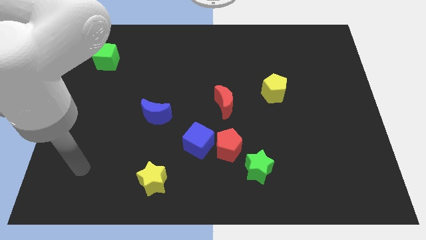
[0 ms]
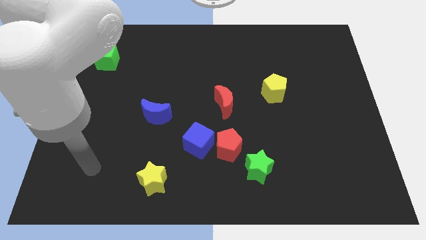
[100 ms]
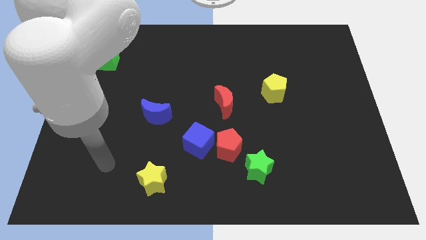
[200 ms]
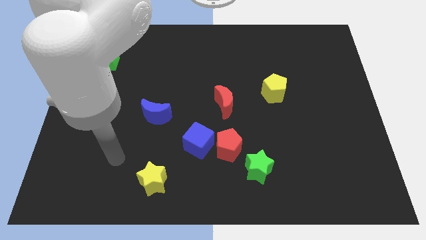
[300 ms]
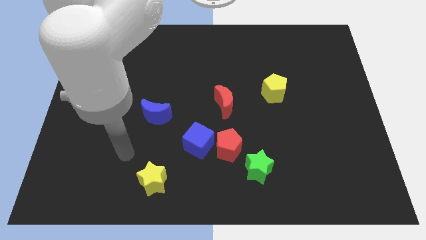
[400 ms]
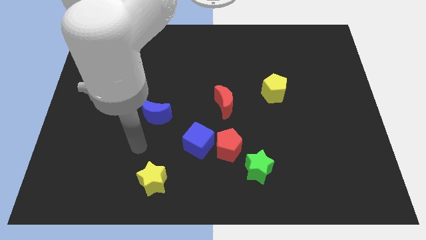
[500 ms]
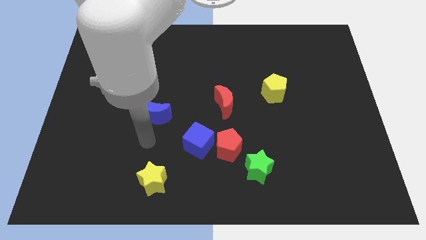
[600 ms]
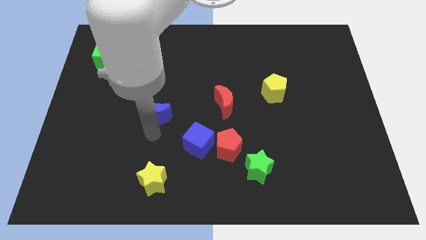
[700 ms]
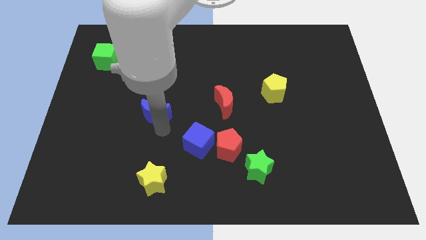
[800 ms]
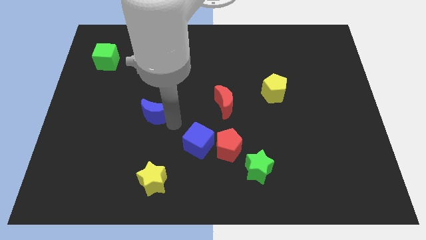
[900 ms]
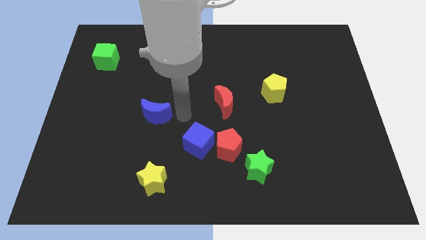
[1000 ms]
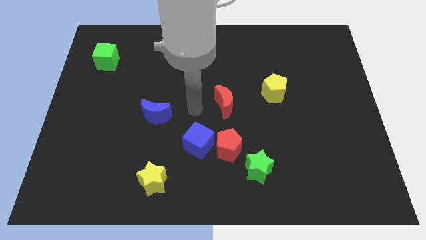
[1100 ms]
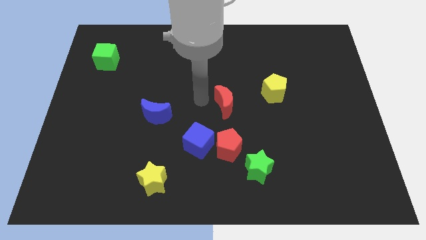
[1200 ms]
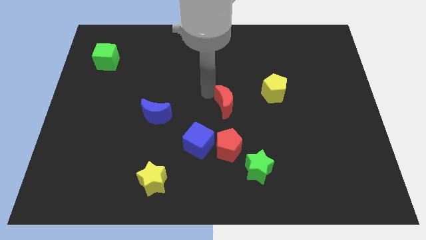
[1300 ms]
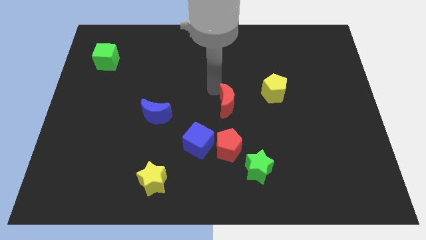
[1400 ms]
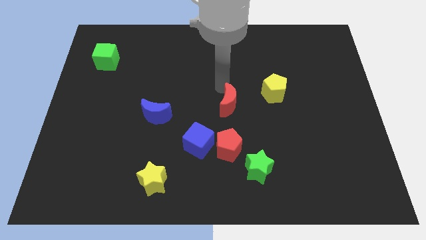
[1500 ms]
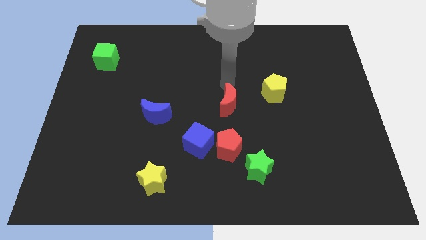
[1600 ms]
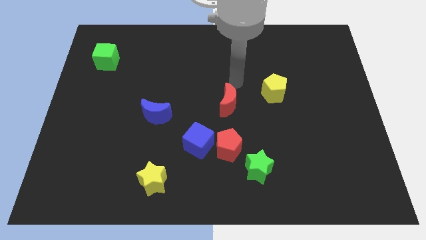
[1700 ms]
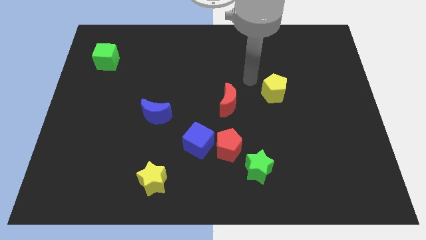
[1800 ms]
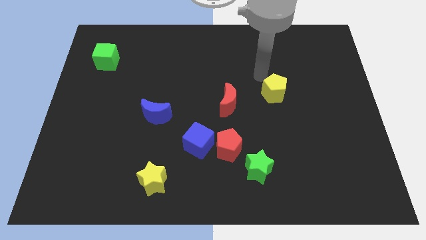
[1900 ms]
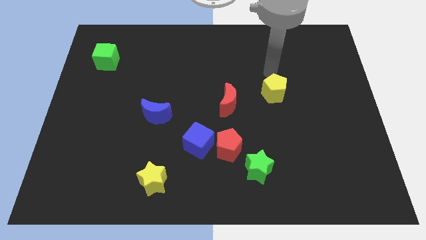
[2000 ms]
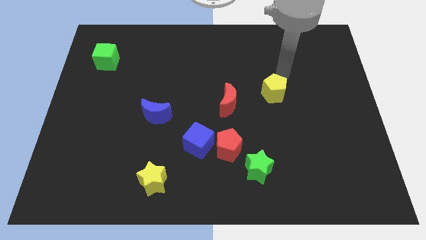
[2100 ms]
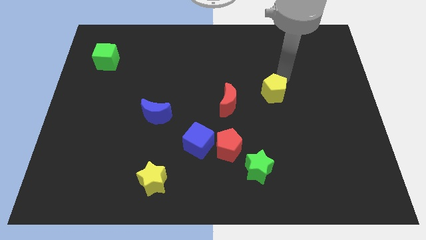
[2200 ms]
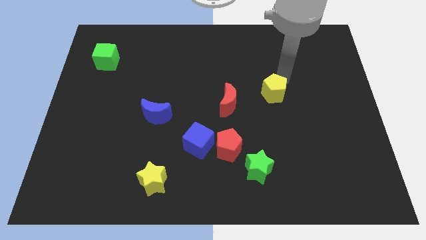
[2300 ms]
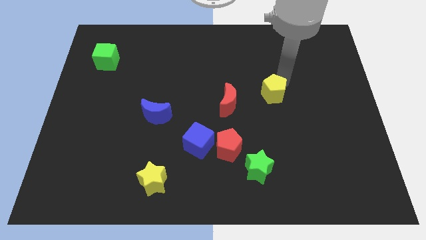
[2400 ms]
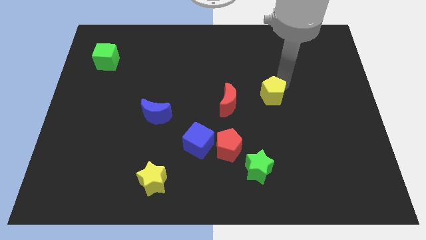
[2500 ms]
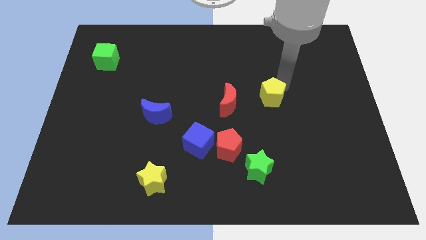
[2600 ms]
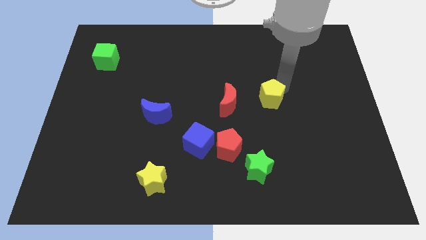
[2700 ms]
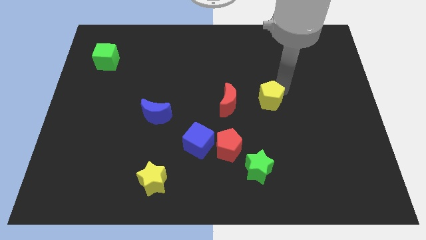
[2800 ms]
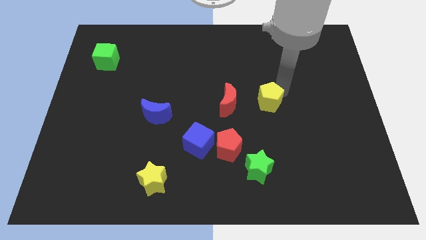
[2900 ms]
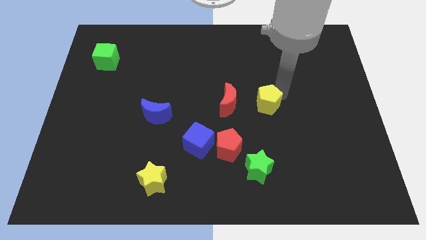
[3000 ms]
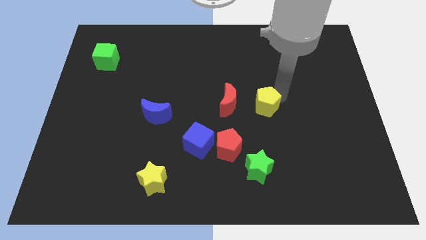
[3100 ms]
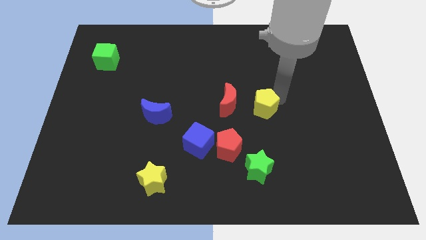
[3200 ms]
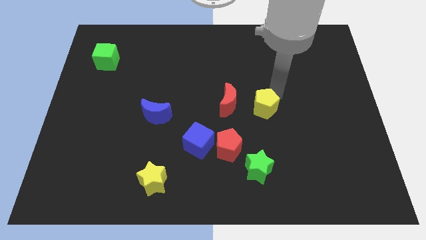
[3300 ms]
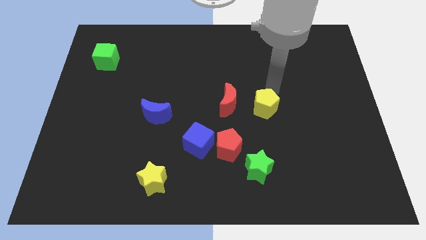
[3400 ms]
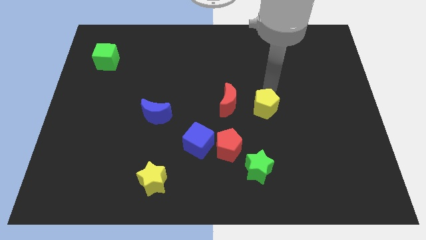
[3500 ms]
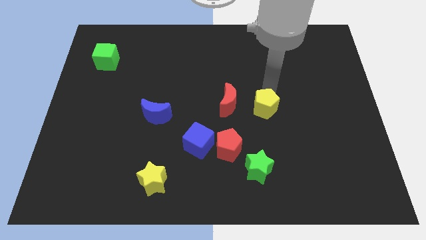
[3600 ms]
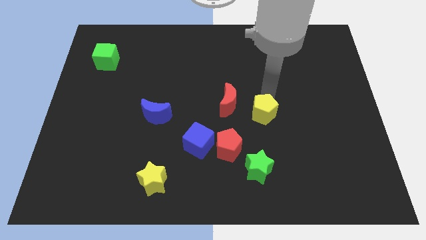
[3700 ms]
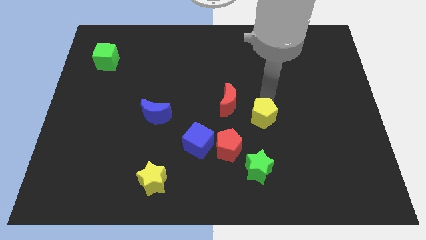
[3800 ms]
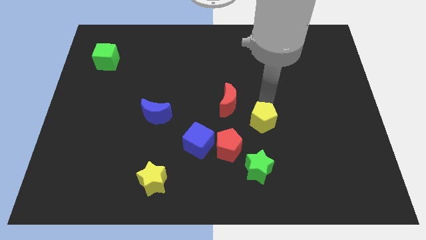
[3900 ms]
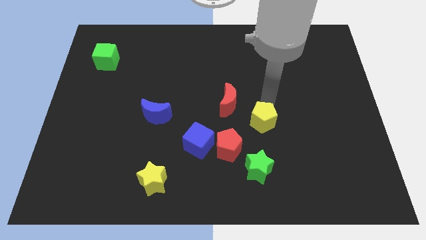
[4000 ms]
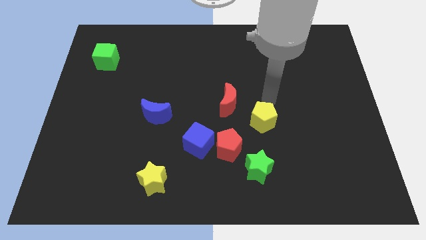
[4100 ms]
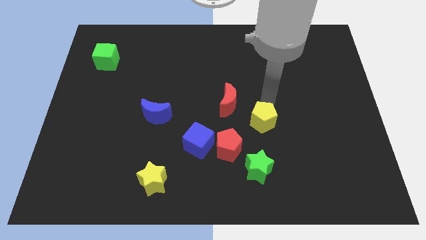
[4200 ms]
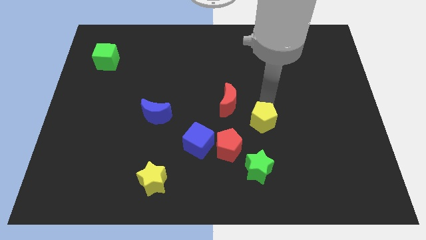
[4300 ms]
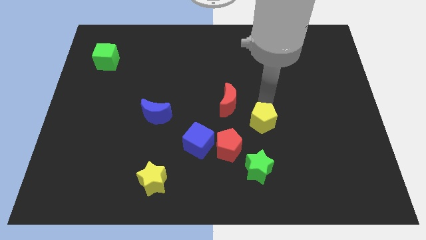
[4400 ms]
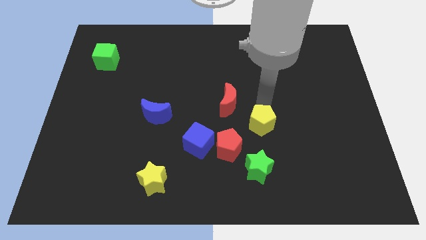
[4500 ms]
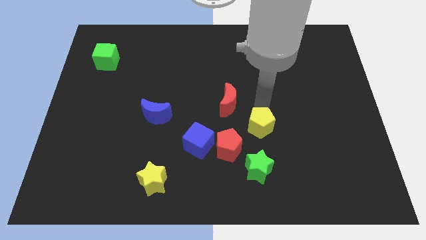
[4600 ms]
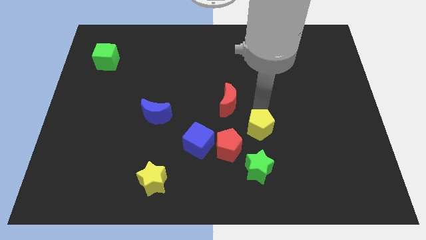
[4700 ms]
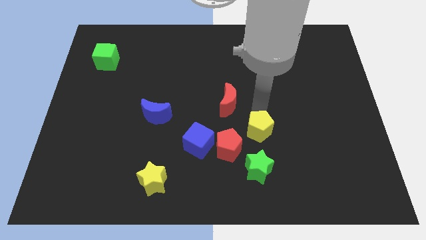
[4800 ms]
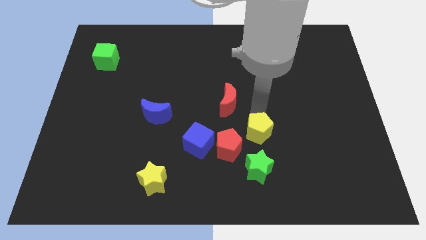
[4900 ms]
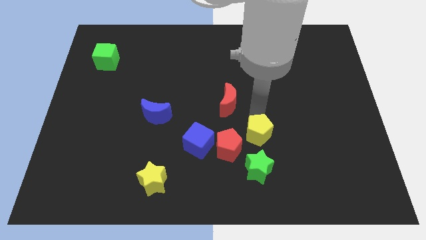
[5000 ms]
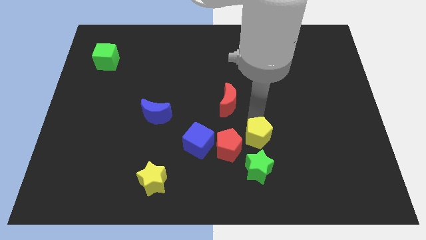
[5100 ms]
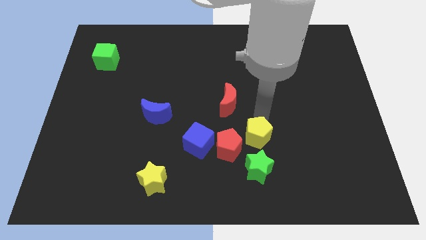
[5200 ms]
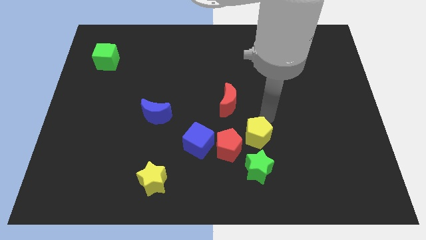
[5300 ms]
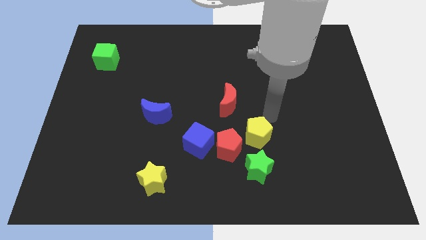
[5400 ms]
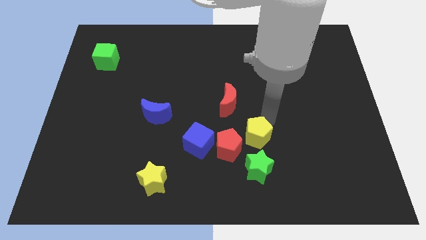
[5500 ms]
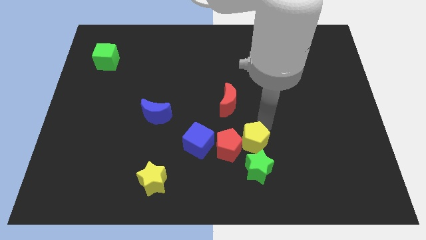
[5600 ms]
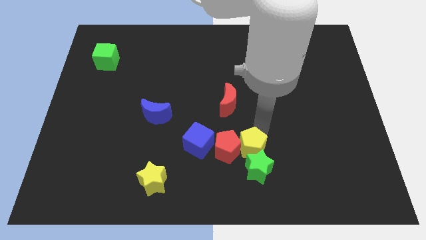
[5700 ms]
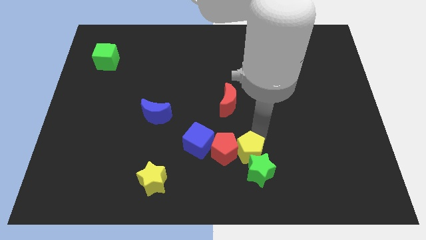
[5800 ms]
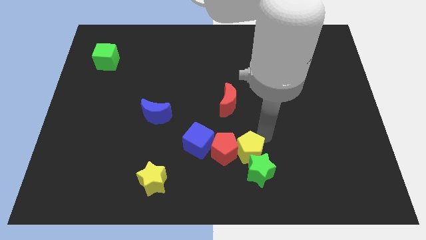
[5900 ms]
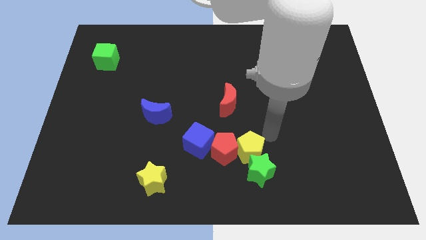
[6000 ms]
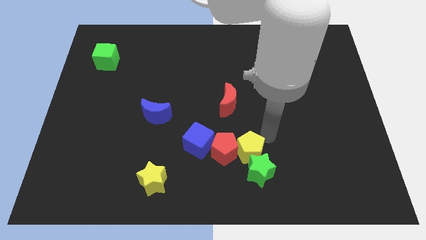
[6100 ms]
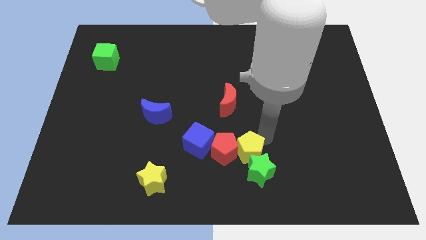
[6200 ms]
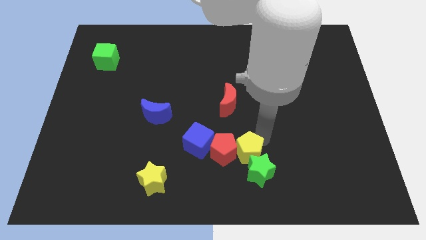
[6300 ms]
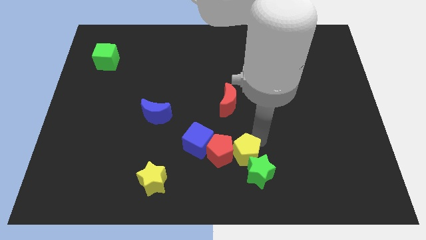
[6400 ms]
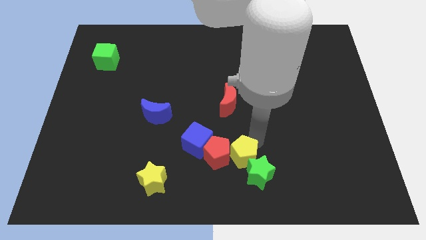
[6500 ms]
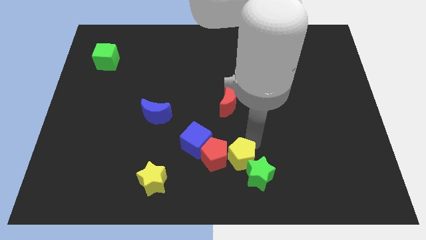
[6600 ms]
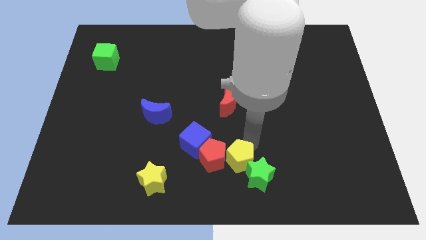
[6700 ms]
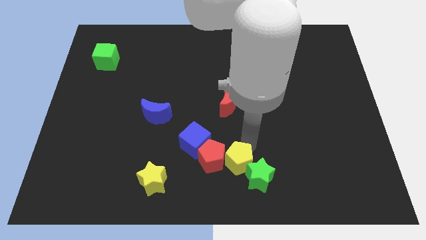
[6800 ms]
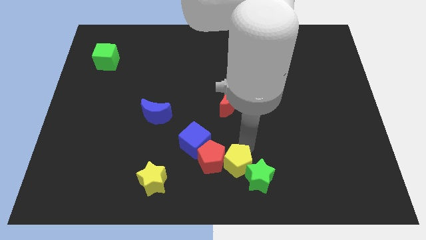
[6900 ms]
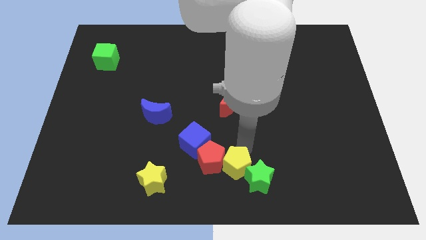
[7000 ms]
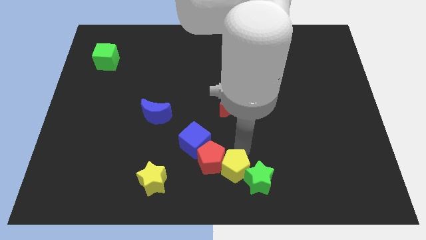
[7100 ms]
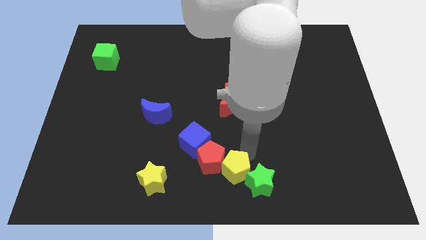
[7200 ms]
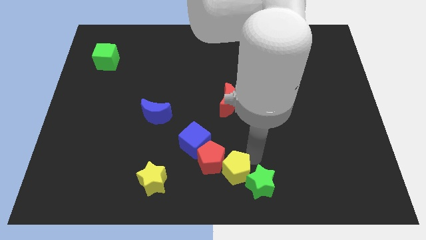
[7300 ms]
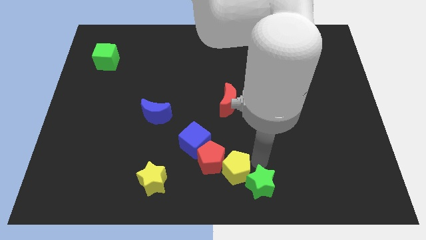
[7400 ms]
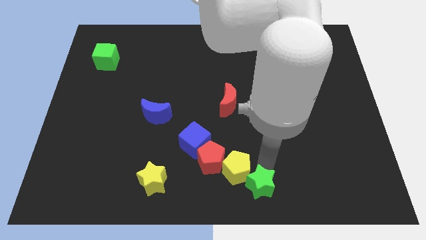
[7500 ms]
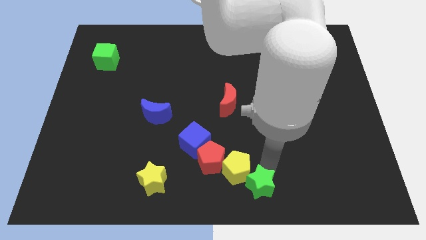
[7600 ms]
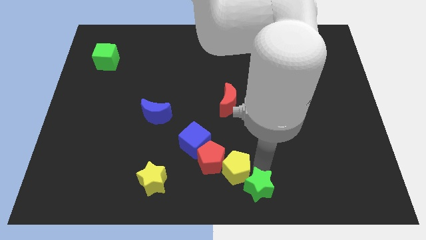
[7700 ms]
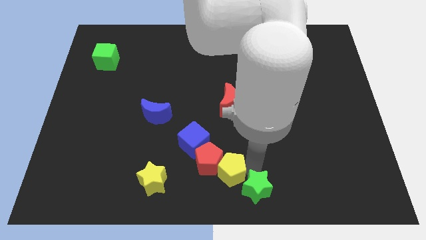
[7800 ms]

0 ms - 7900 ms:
push the yellow pentagon downwards and then to the left
